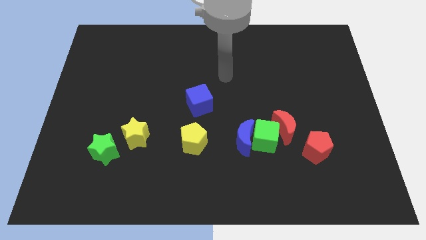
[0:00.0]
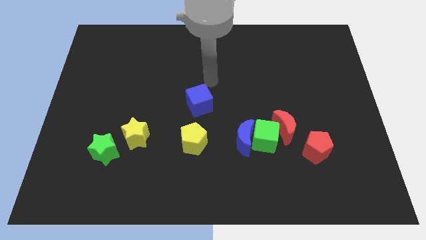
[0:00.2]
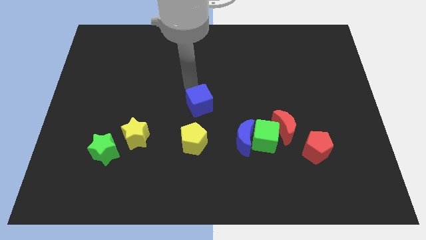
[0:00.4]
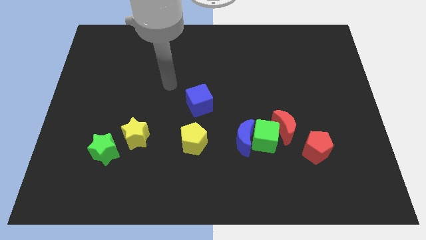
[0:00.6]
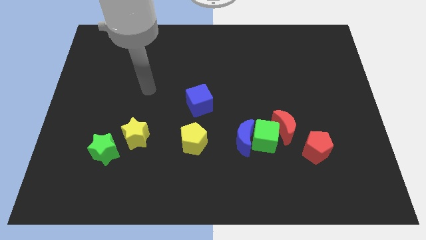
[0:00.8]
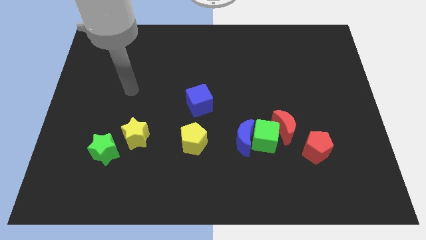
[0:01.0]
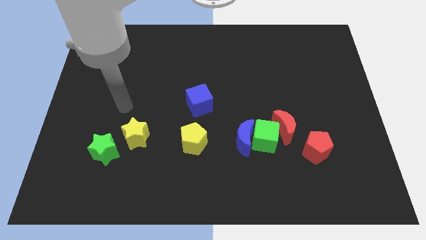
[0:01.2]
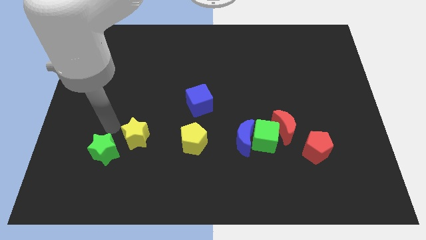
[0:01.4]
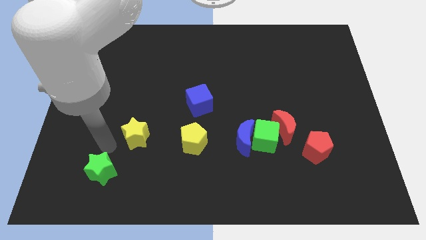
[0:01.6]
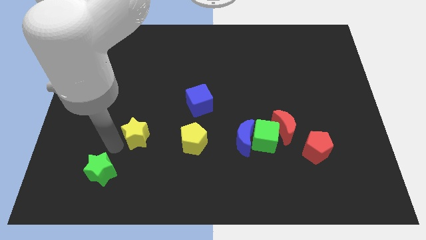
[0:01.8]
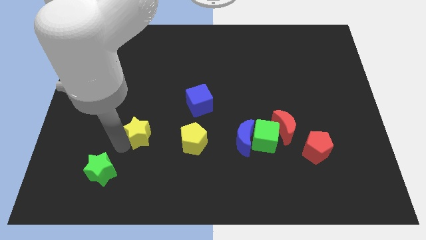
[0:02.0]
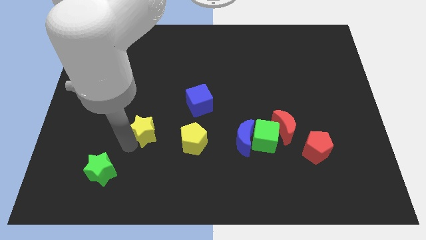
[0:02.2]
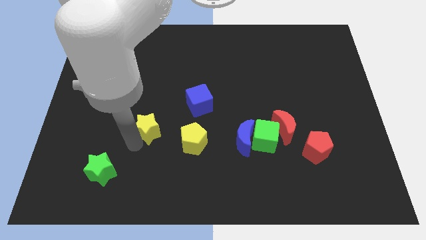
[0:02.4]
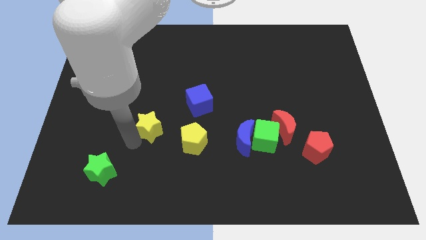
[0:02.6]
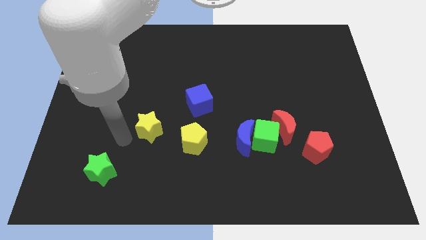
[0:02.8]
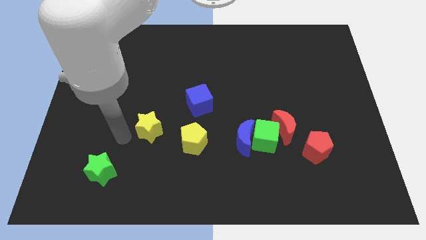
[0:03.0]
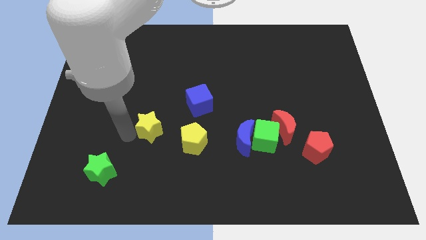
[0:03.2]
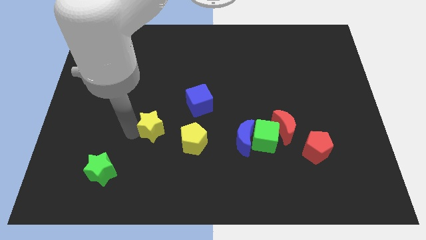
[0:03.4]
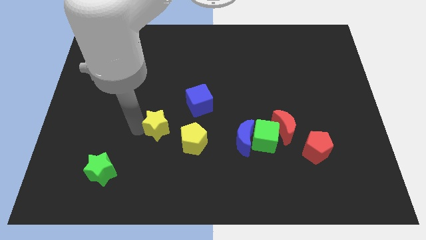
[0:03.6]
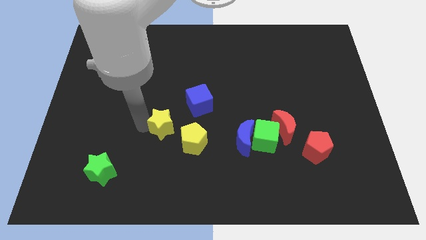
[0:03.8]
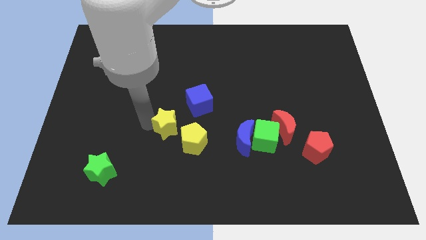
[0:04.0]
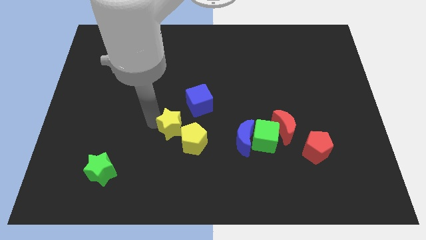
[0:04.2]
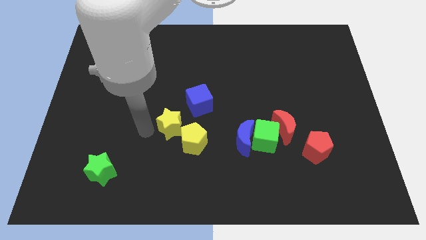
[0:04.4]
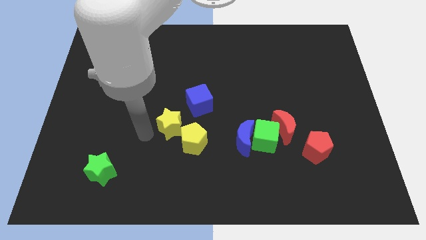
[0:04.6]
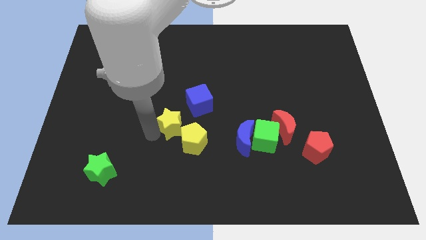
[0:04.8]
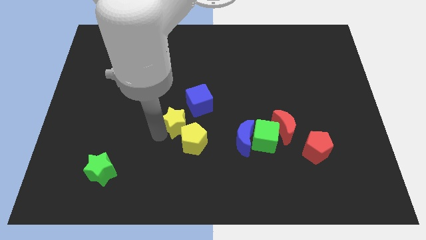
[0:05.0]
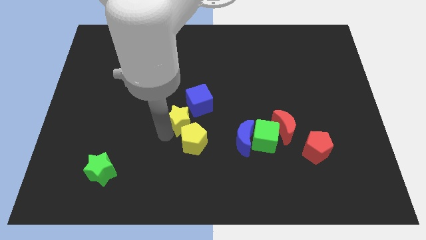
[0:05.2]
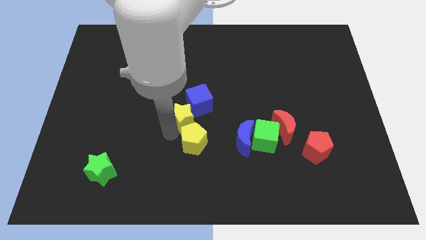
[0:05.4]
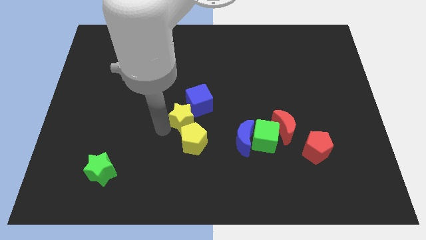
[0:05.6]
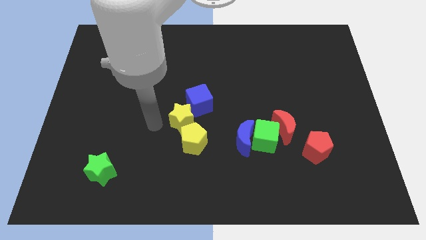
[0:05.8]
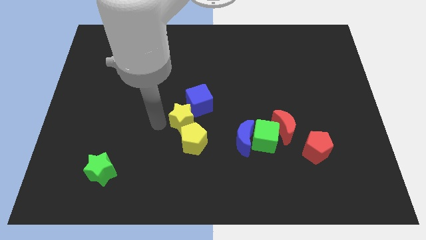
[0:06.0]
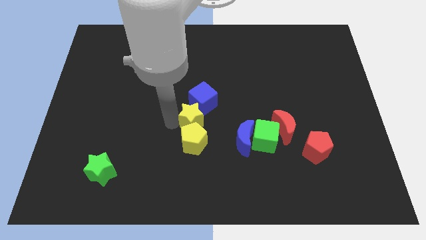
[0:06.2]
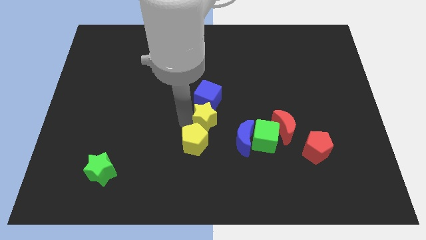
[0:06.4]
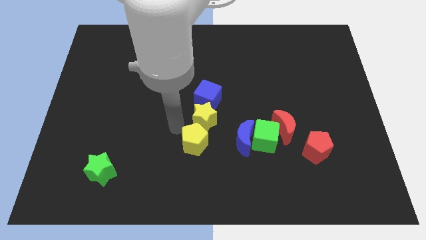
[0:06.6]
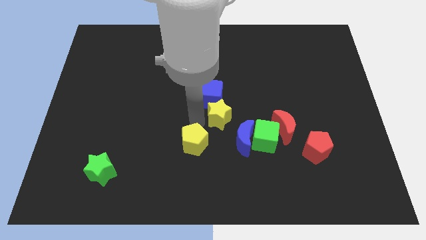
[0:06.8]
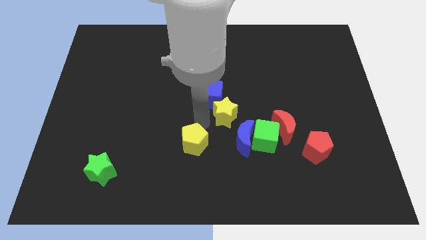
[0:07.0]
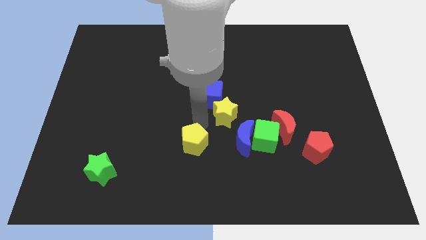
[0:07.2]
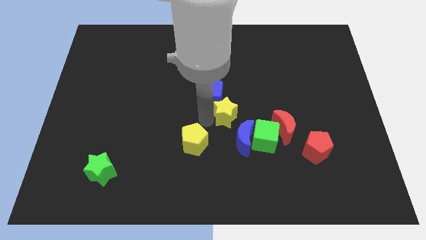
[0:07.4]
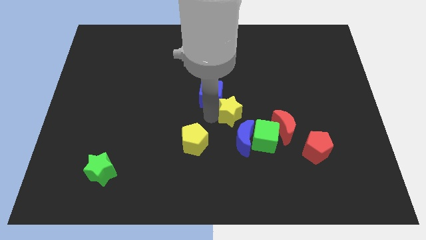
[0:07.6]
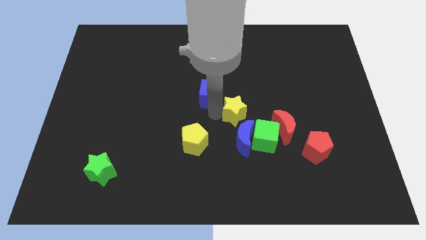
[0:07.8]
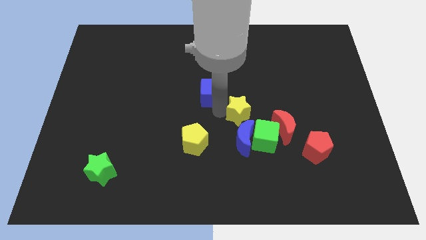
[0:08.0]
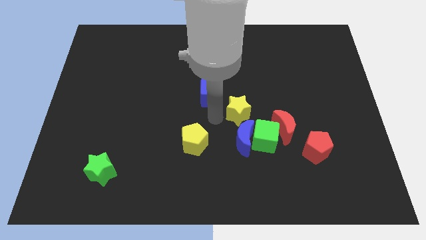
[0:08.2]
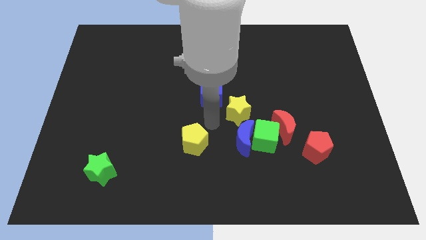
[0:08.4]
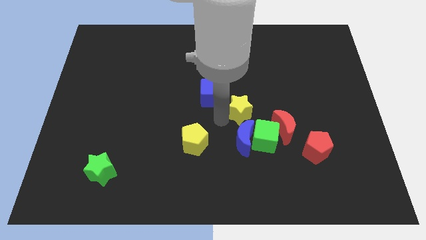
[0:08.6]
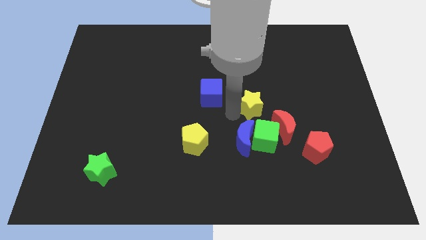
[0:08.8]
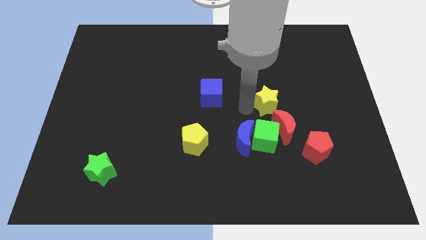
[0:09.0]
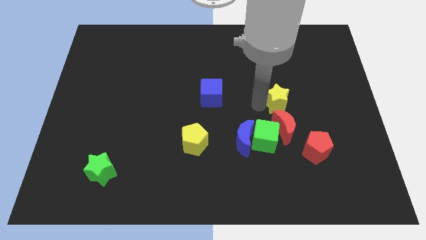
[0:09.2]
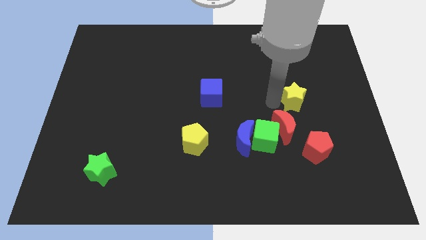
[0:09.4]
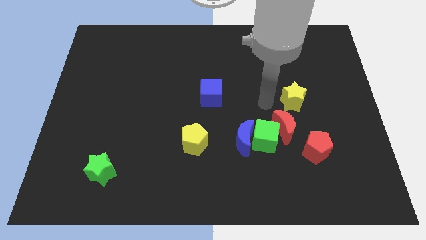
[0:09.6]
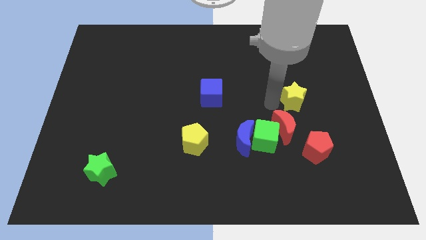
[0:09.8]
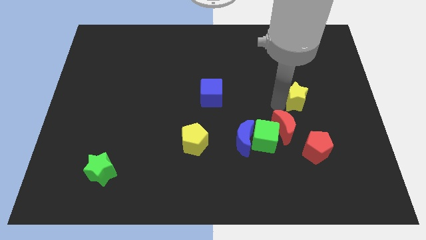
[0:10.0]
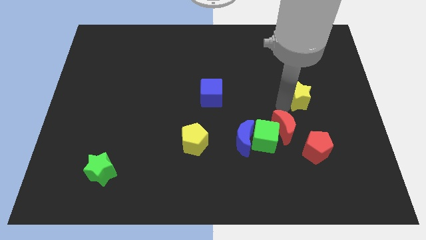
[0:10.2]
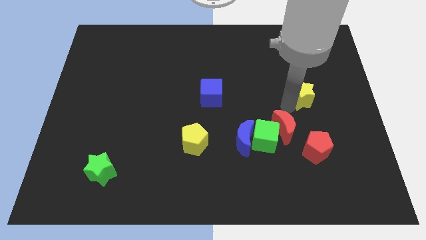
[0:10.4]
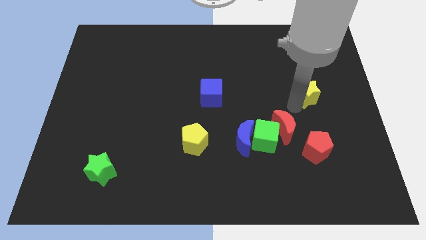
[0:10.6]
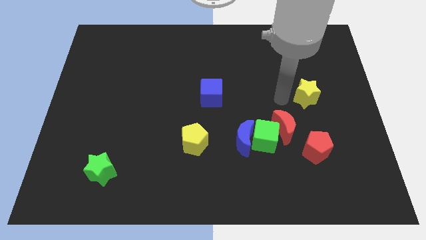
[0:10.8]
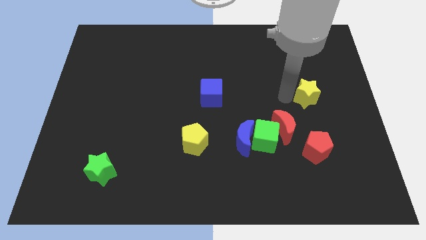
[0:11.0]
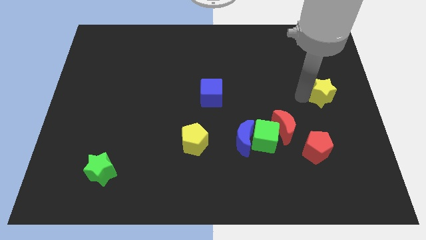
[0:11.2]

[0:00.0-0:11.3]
put the yellow star to the center right

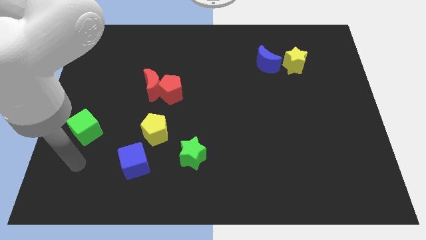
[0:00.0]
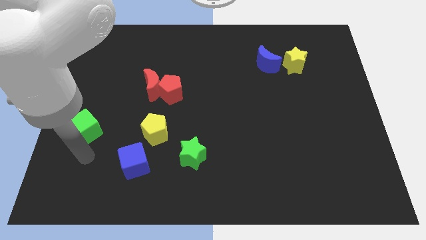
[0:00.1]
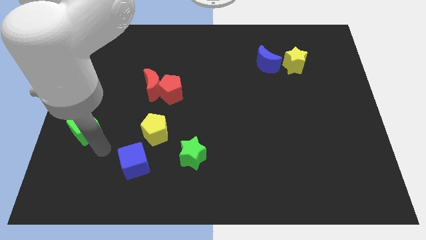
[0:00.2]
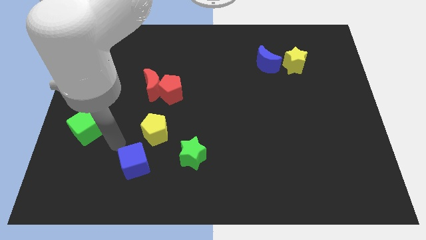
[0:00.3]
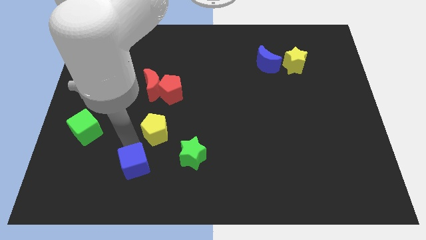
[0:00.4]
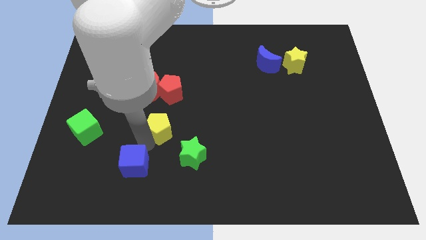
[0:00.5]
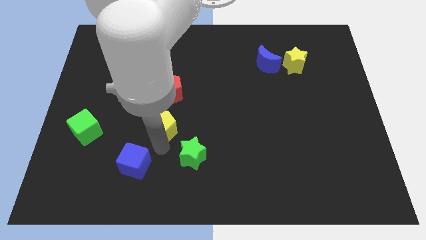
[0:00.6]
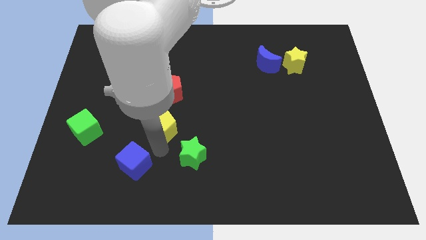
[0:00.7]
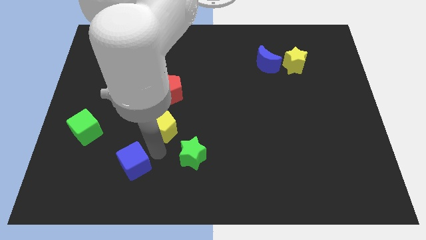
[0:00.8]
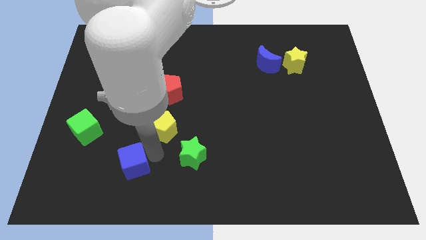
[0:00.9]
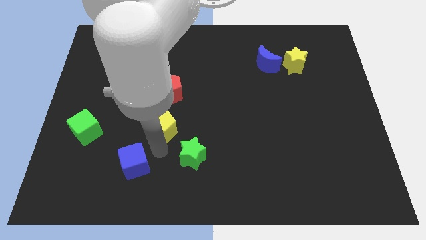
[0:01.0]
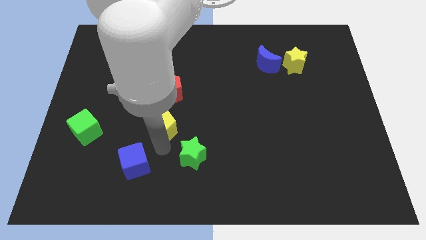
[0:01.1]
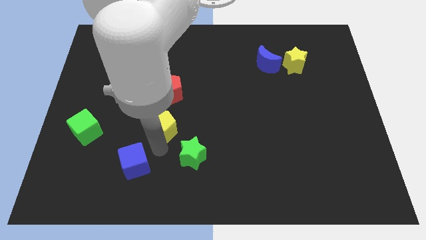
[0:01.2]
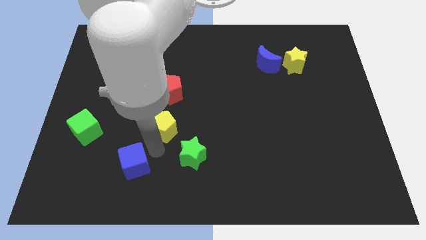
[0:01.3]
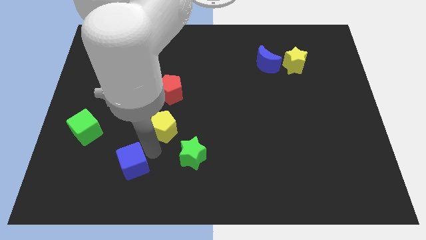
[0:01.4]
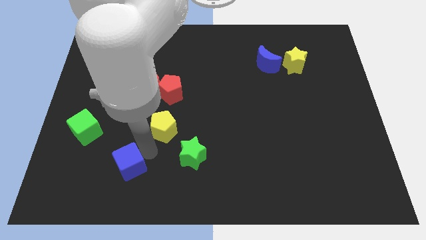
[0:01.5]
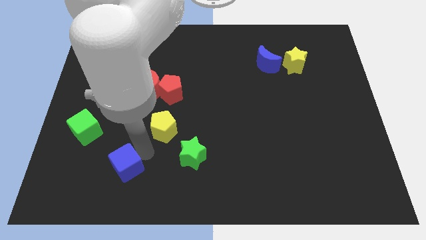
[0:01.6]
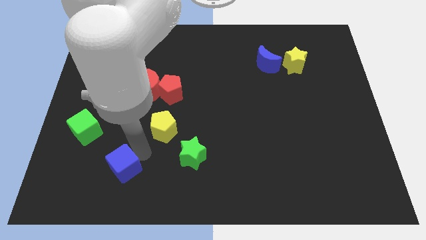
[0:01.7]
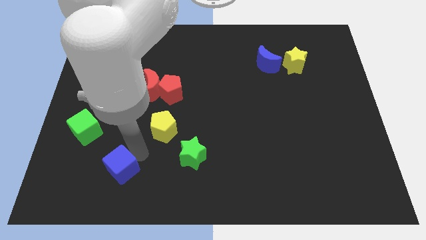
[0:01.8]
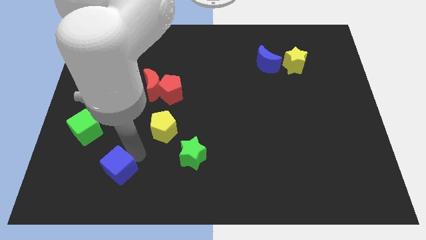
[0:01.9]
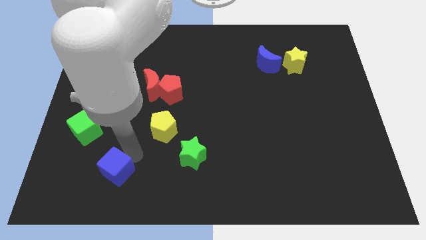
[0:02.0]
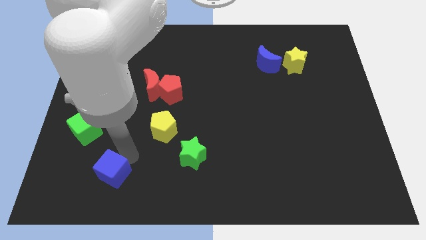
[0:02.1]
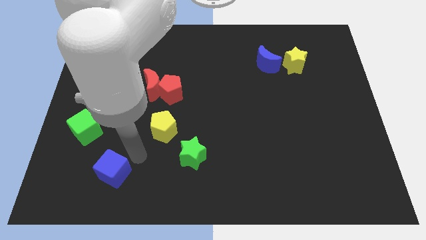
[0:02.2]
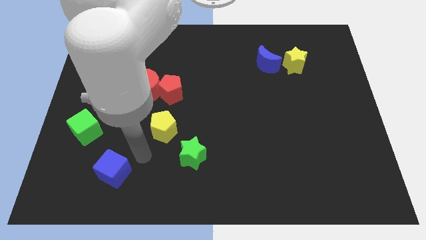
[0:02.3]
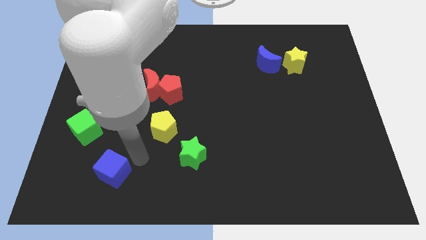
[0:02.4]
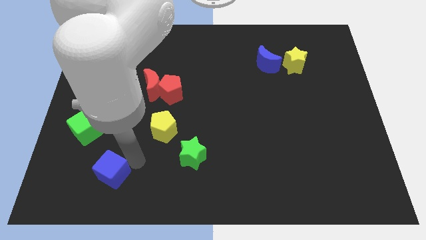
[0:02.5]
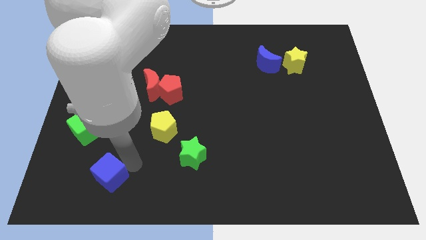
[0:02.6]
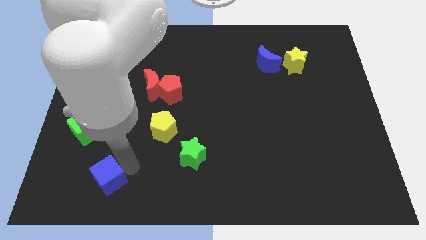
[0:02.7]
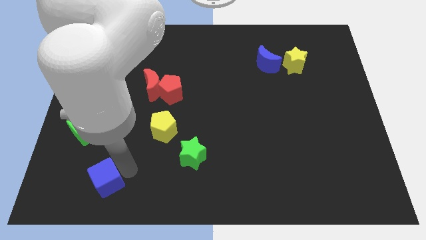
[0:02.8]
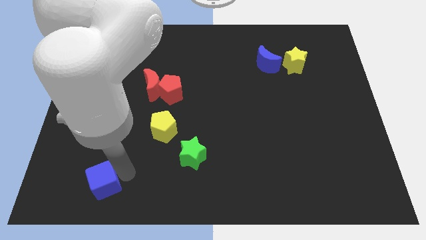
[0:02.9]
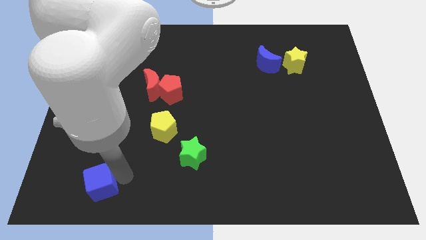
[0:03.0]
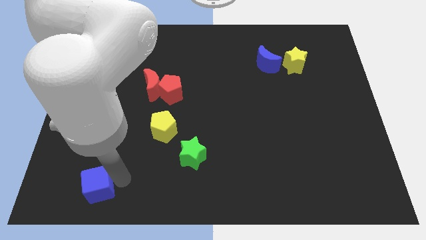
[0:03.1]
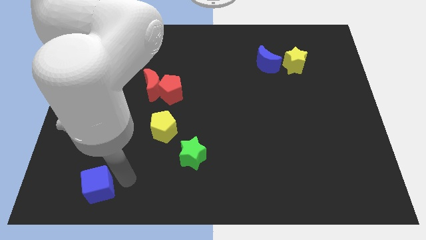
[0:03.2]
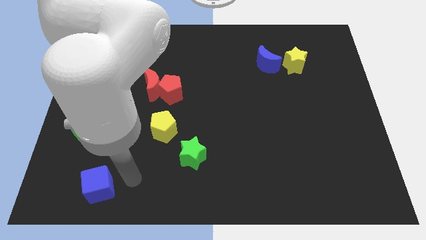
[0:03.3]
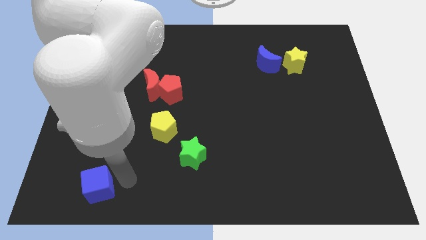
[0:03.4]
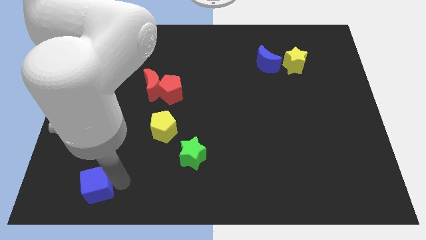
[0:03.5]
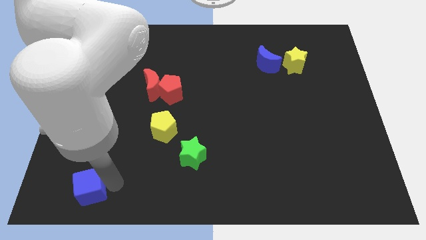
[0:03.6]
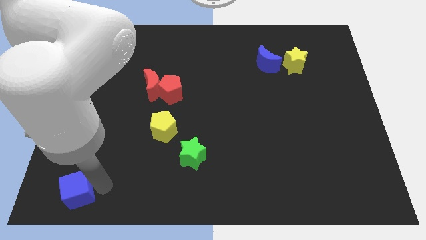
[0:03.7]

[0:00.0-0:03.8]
put the blue cube to the lower left corner
